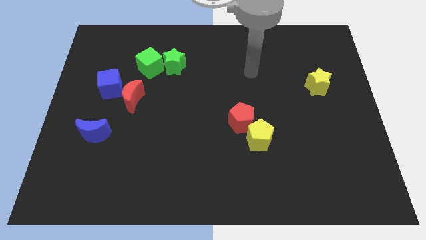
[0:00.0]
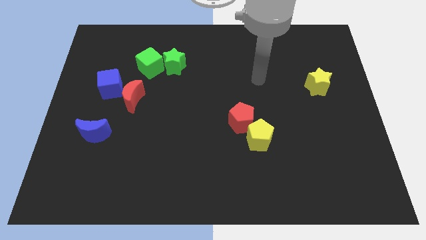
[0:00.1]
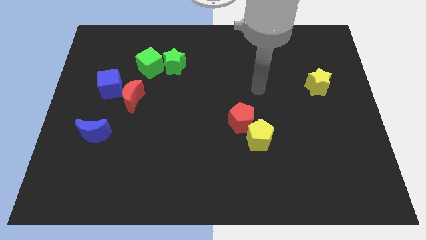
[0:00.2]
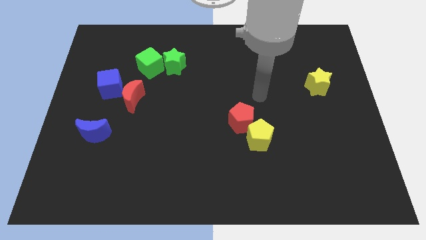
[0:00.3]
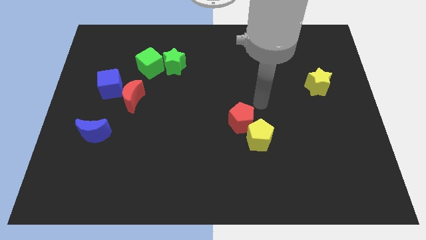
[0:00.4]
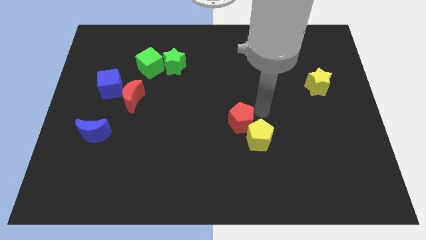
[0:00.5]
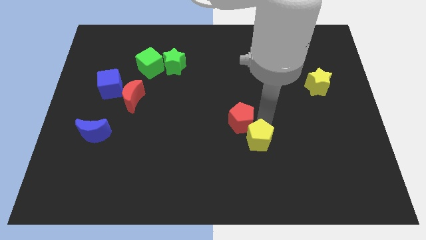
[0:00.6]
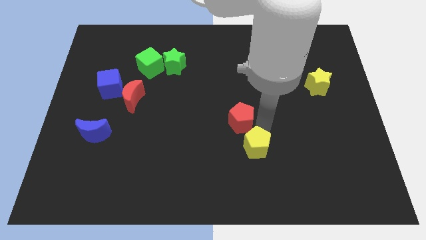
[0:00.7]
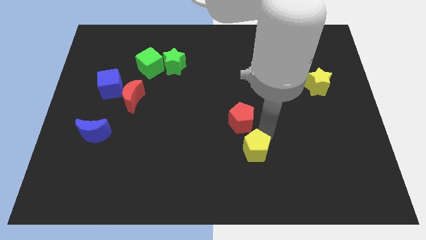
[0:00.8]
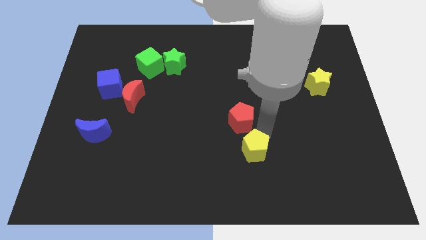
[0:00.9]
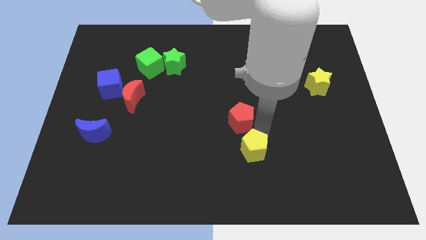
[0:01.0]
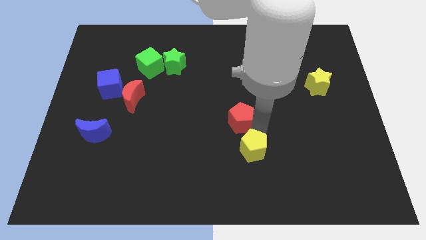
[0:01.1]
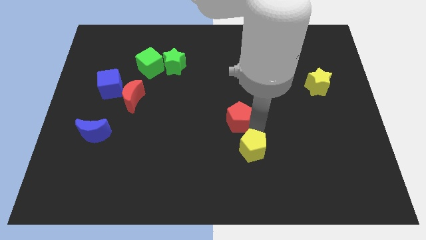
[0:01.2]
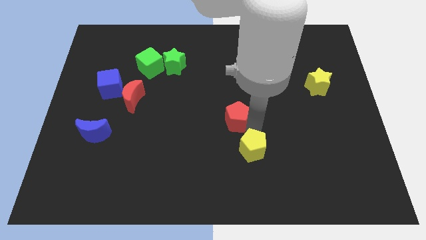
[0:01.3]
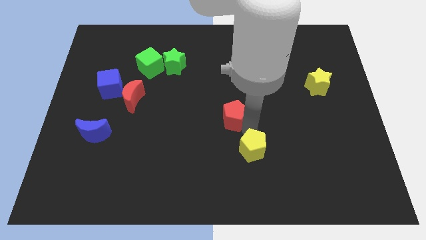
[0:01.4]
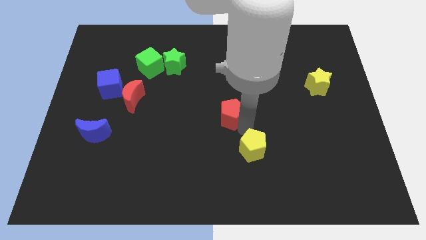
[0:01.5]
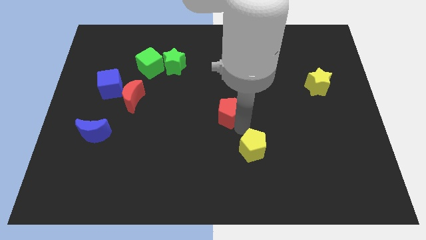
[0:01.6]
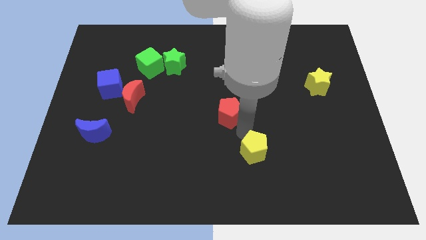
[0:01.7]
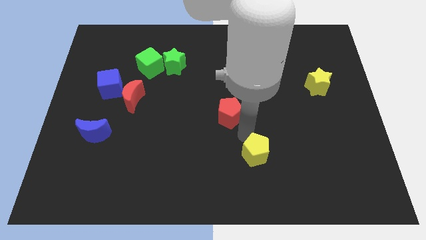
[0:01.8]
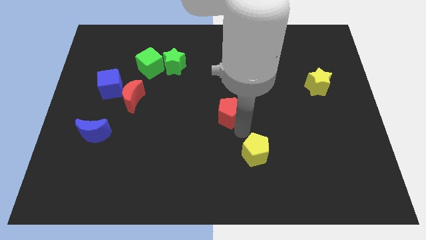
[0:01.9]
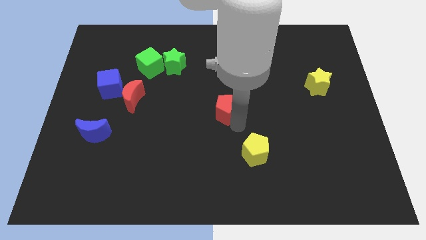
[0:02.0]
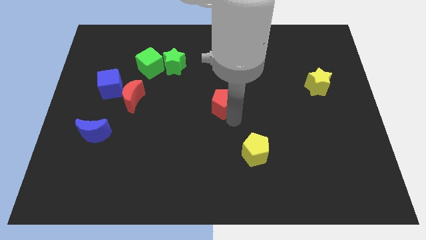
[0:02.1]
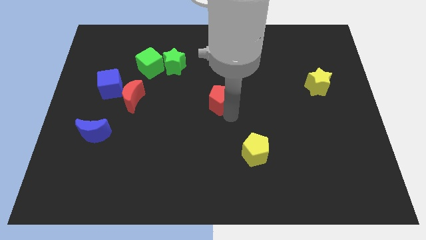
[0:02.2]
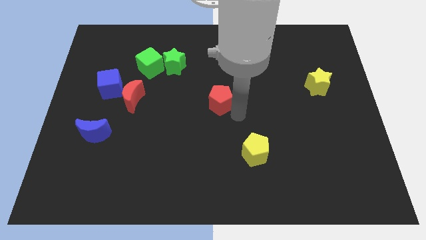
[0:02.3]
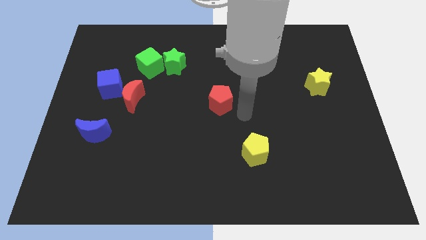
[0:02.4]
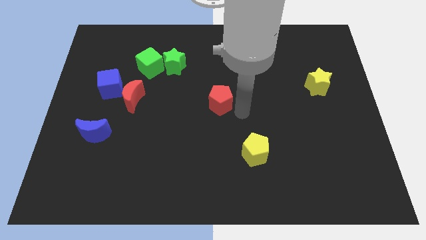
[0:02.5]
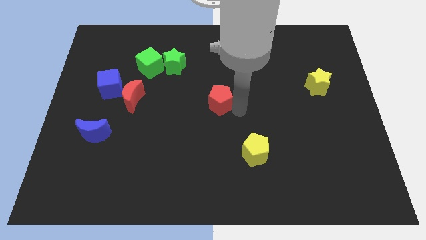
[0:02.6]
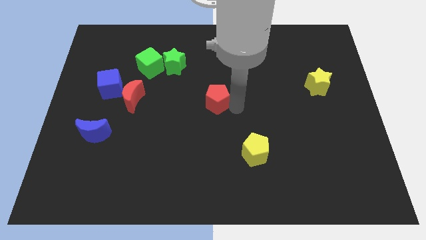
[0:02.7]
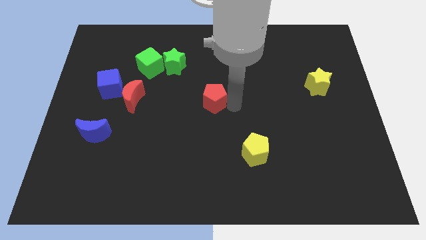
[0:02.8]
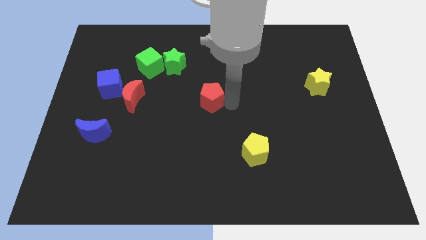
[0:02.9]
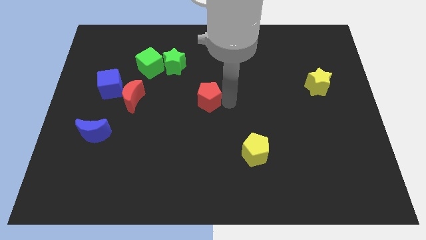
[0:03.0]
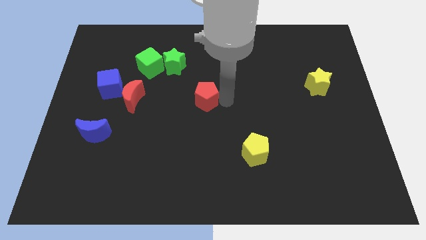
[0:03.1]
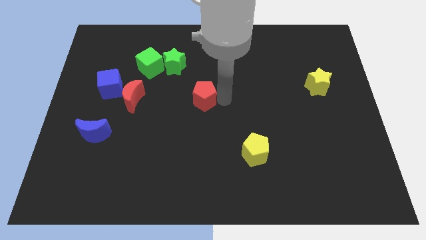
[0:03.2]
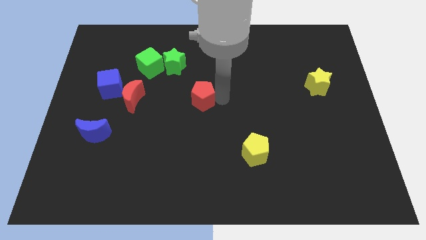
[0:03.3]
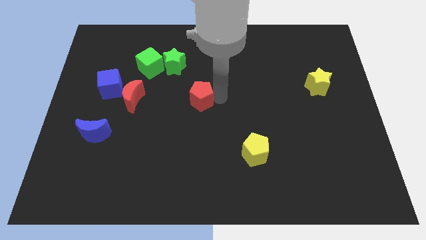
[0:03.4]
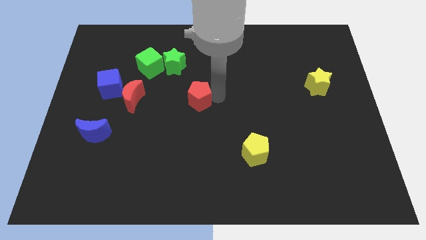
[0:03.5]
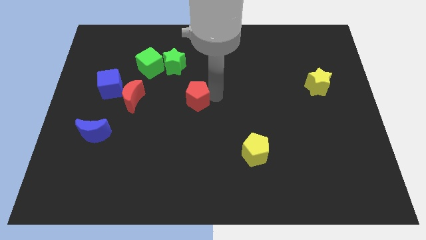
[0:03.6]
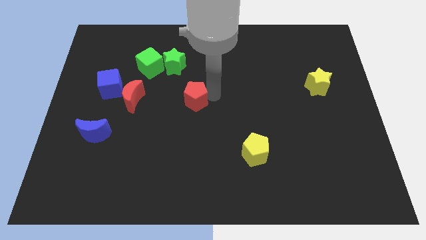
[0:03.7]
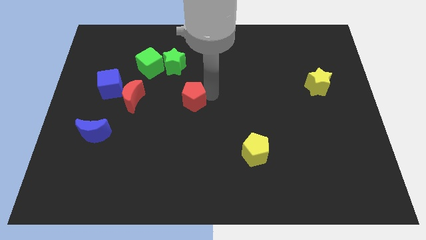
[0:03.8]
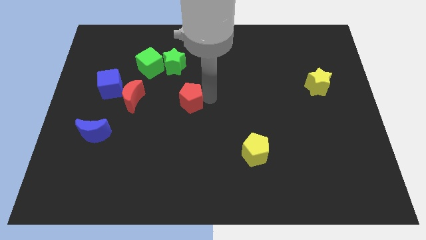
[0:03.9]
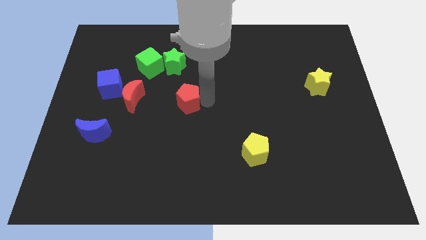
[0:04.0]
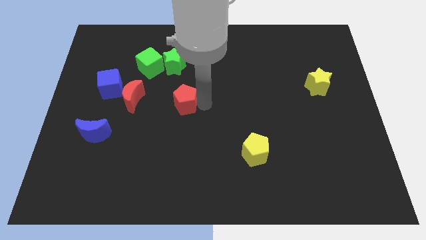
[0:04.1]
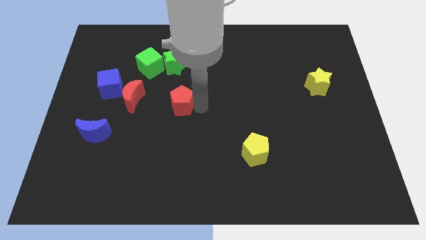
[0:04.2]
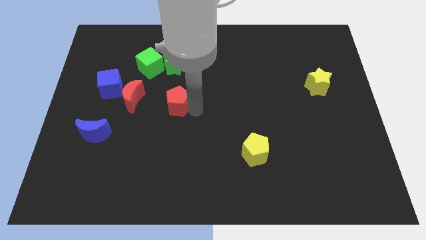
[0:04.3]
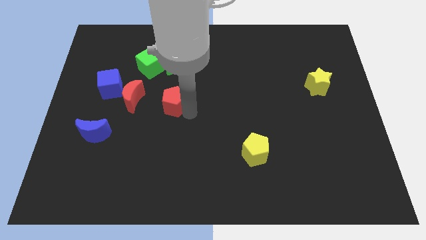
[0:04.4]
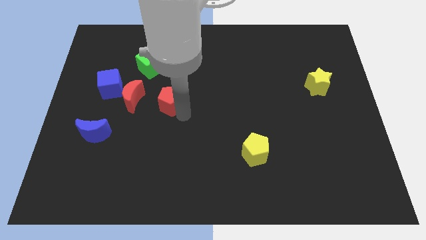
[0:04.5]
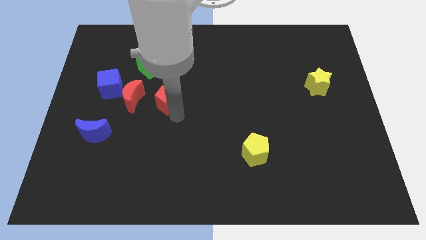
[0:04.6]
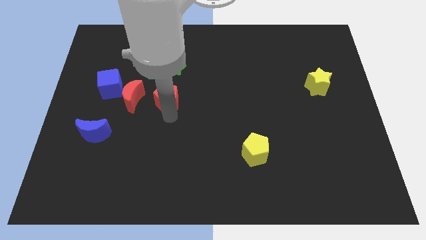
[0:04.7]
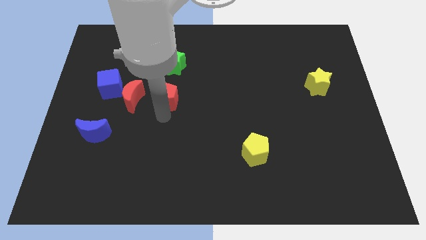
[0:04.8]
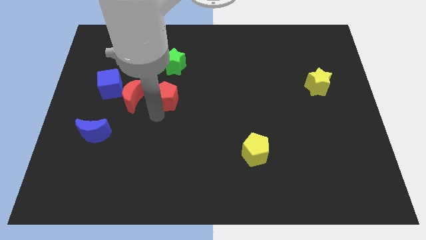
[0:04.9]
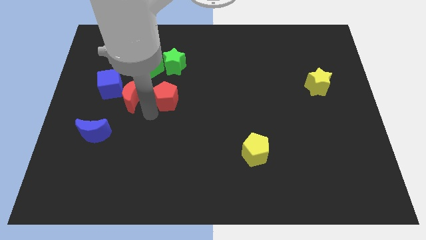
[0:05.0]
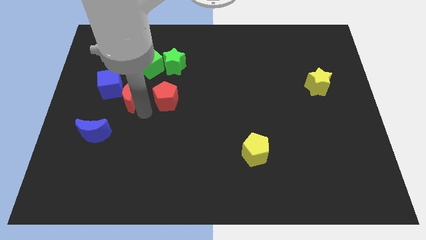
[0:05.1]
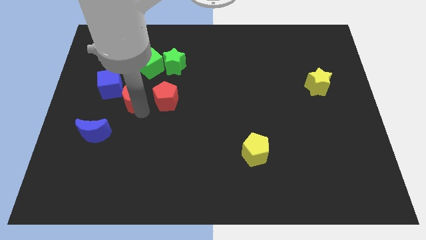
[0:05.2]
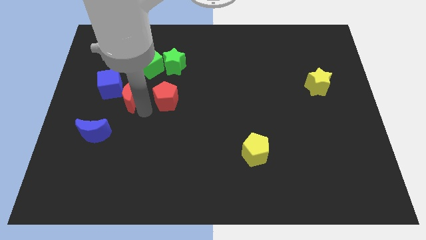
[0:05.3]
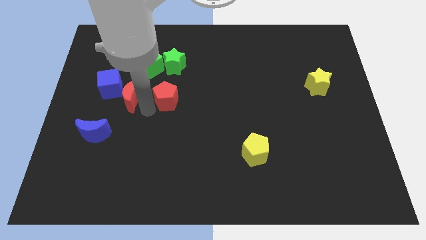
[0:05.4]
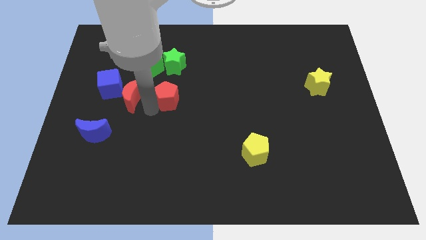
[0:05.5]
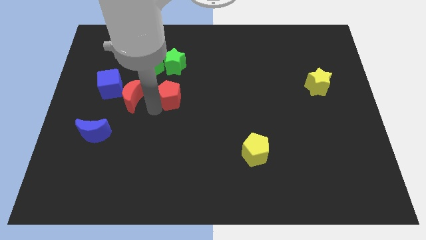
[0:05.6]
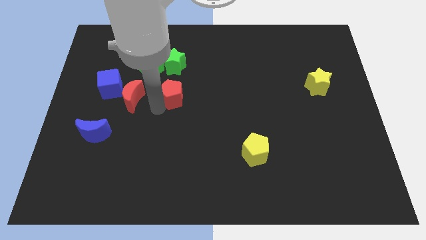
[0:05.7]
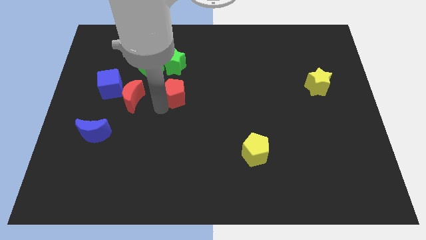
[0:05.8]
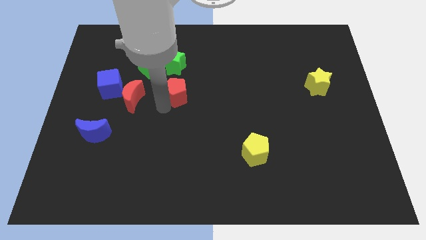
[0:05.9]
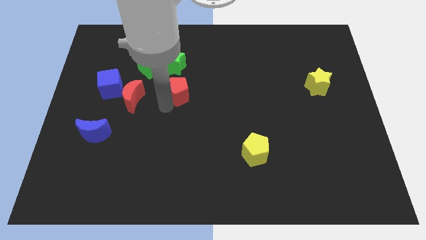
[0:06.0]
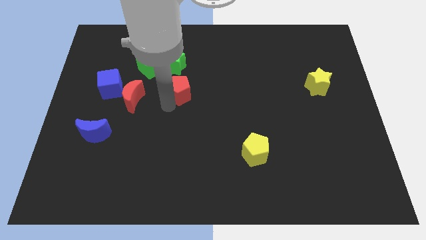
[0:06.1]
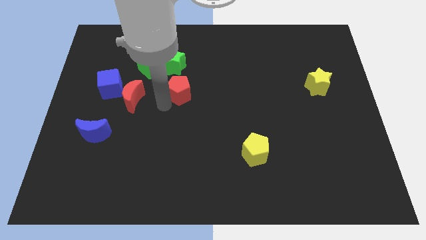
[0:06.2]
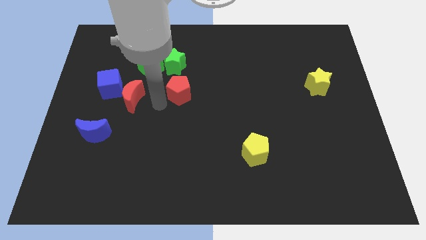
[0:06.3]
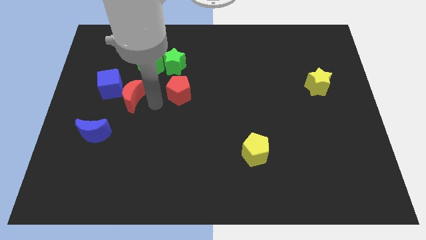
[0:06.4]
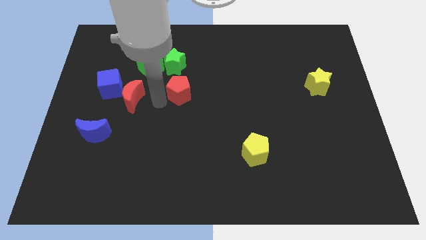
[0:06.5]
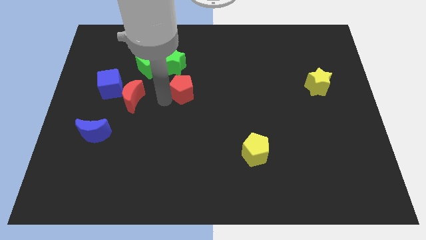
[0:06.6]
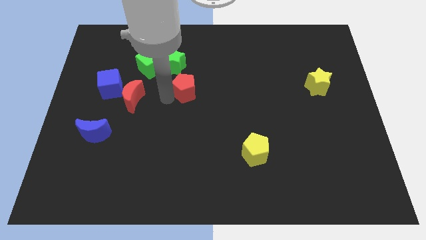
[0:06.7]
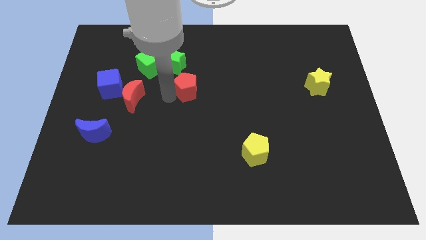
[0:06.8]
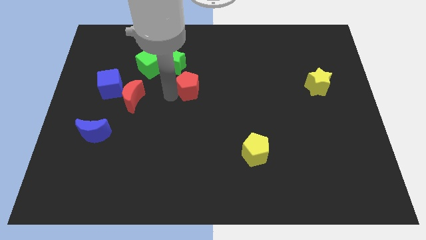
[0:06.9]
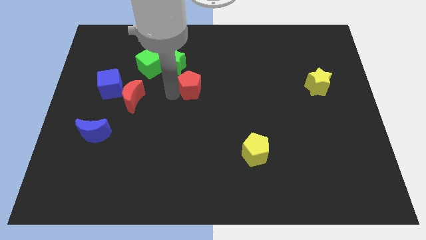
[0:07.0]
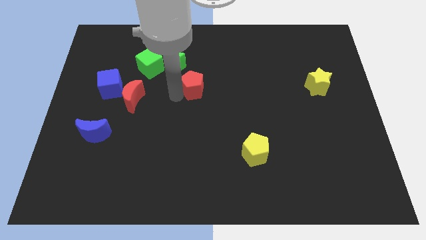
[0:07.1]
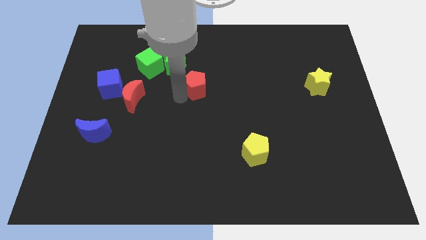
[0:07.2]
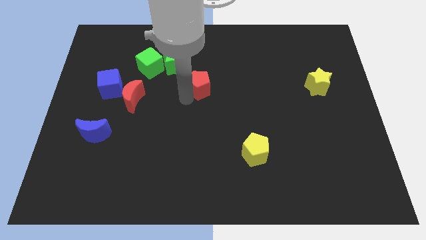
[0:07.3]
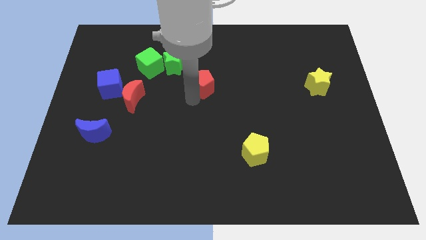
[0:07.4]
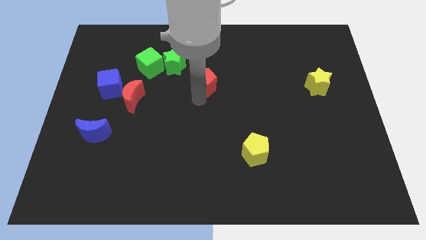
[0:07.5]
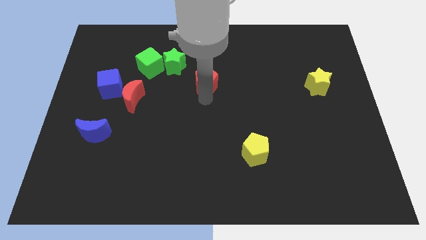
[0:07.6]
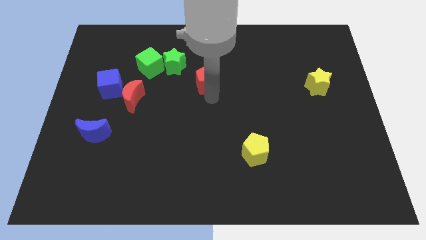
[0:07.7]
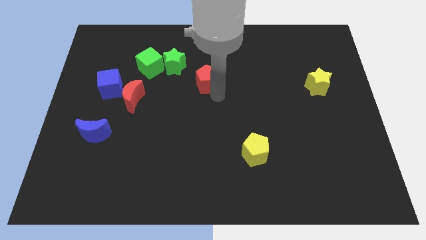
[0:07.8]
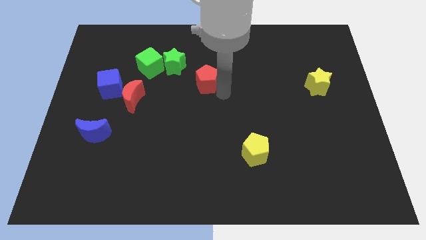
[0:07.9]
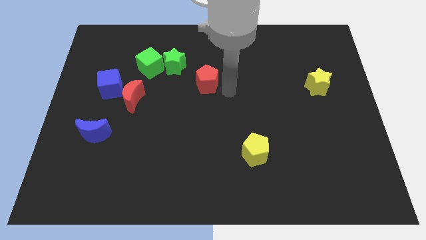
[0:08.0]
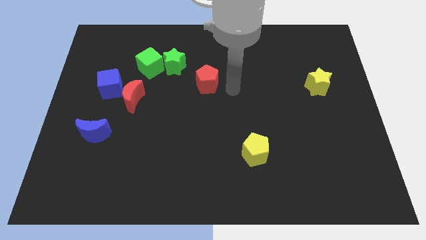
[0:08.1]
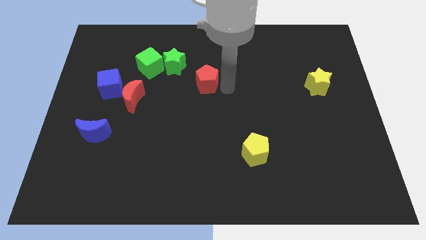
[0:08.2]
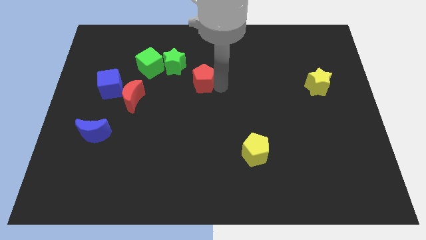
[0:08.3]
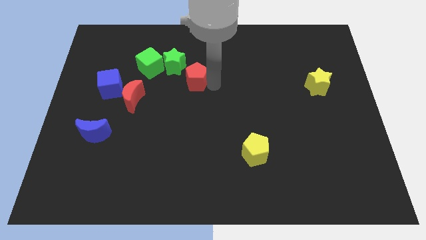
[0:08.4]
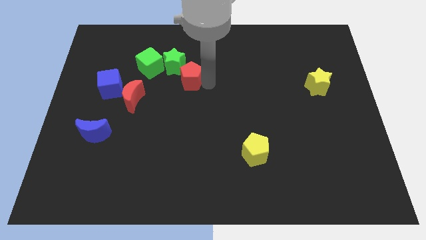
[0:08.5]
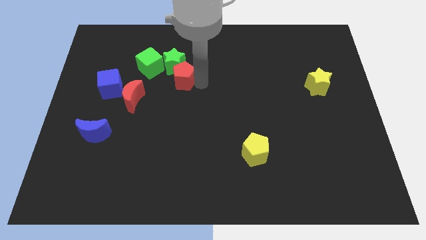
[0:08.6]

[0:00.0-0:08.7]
put the red pentagon close to the green star
